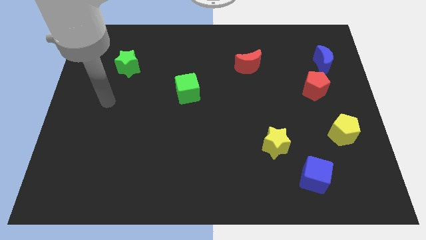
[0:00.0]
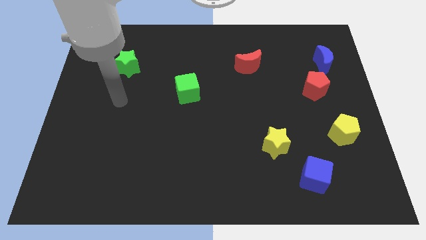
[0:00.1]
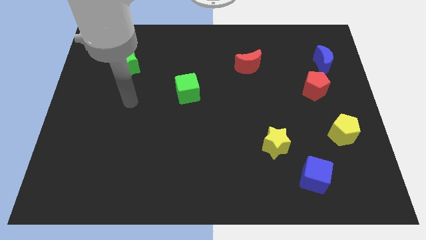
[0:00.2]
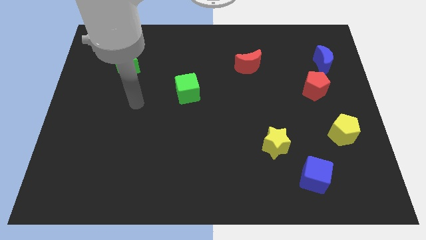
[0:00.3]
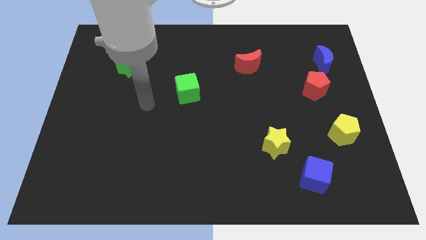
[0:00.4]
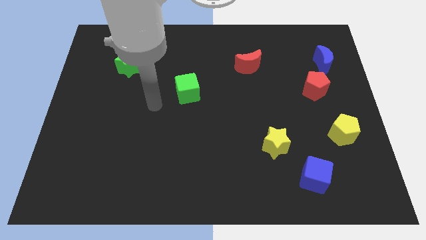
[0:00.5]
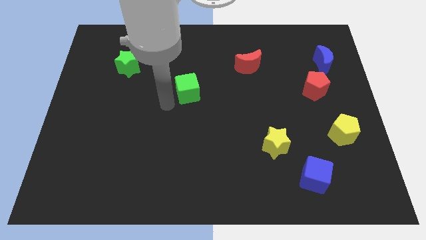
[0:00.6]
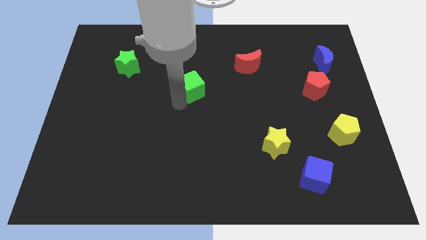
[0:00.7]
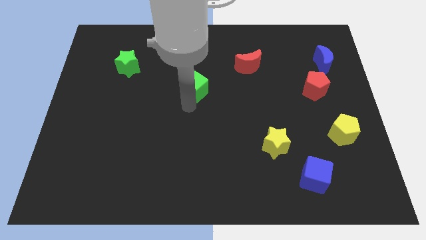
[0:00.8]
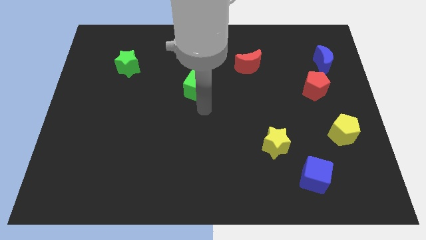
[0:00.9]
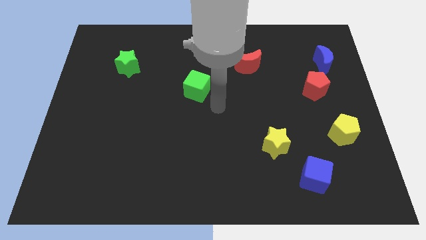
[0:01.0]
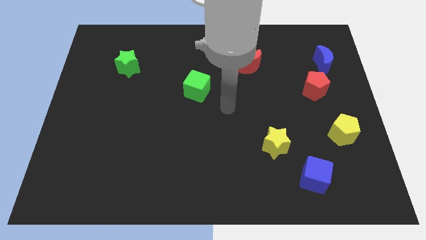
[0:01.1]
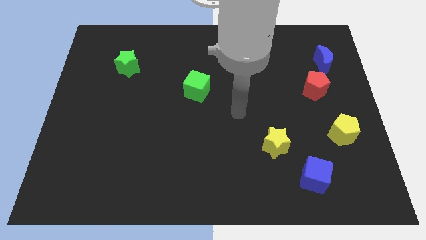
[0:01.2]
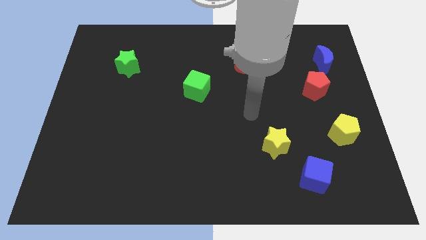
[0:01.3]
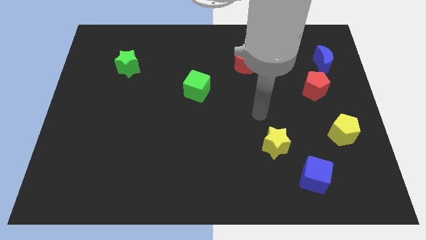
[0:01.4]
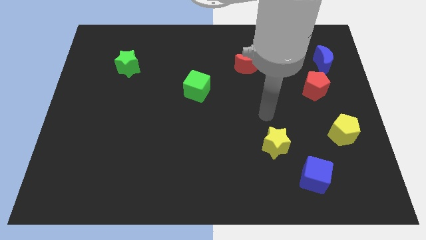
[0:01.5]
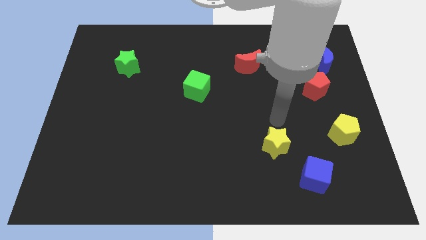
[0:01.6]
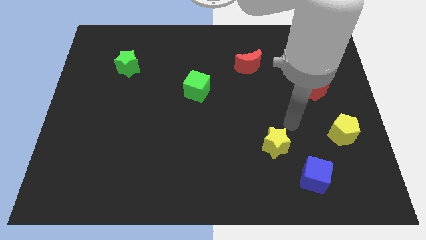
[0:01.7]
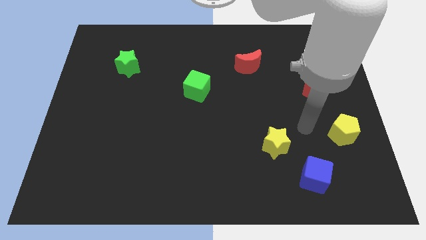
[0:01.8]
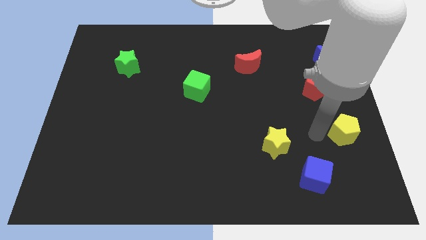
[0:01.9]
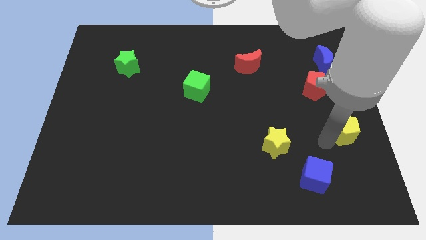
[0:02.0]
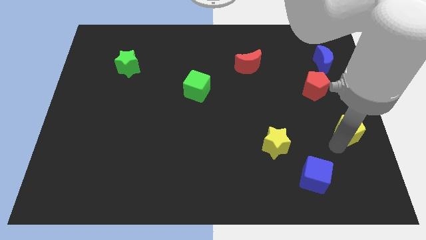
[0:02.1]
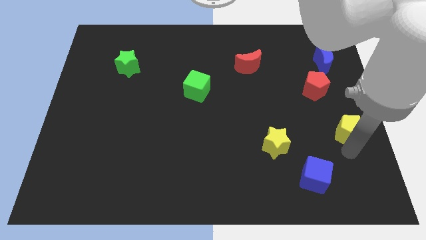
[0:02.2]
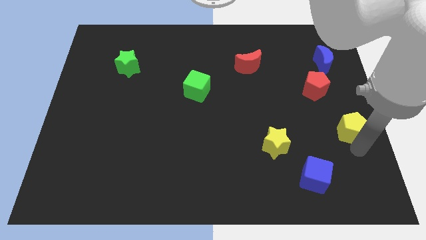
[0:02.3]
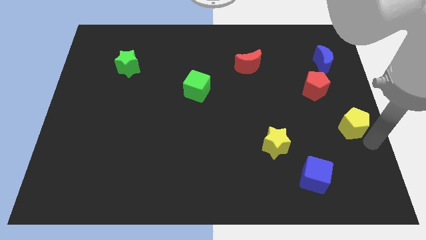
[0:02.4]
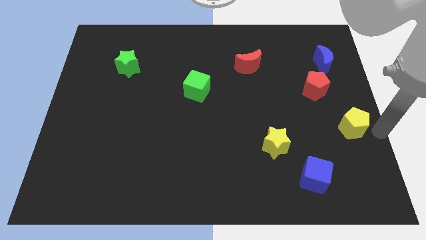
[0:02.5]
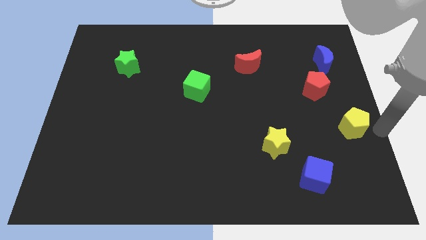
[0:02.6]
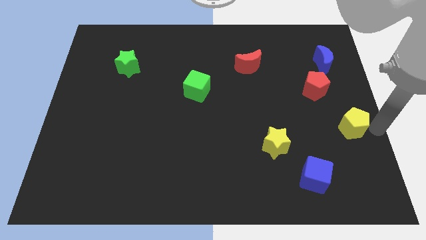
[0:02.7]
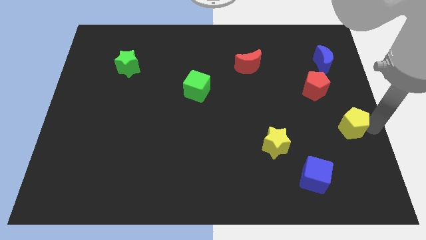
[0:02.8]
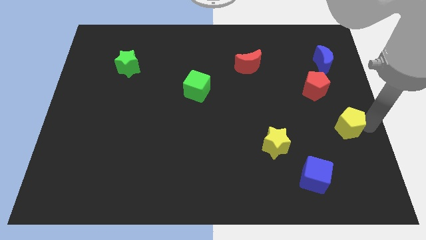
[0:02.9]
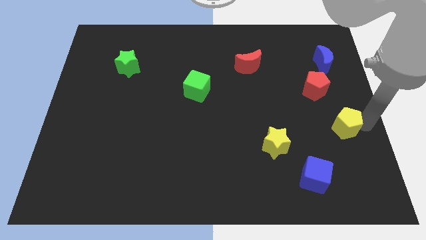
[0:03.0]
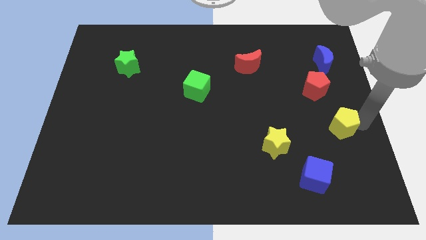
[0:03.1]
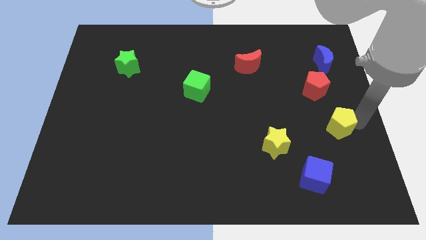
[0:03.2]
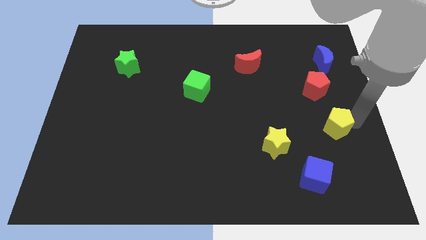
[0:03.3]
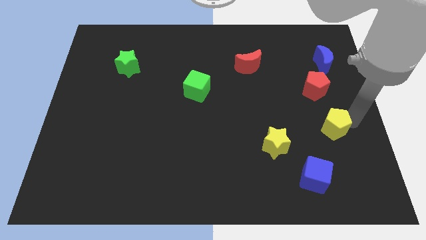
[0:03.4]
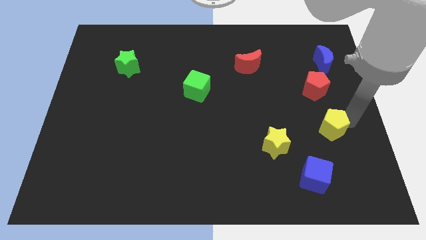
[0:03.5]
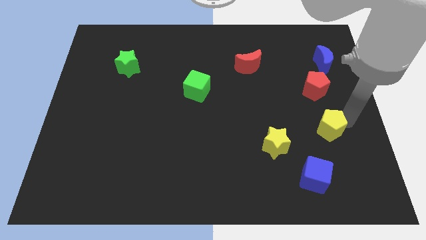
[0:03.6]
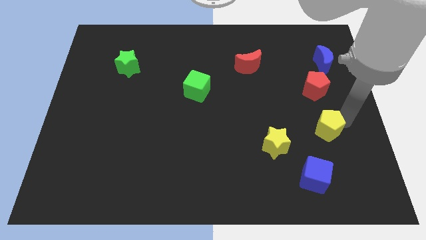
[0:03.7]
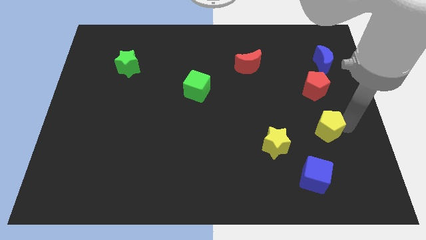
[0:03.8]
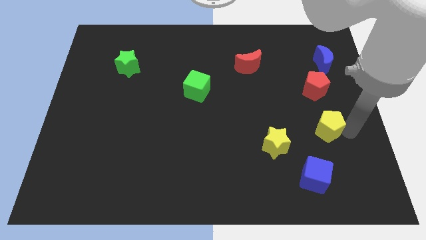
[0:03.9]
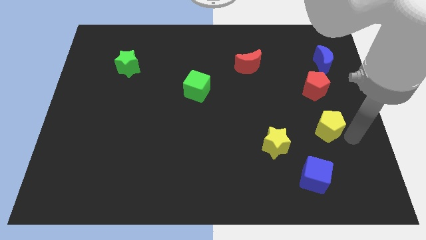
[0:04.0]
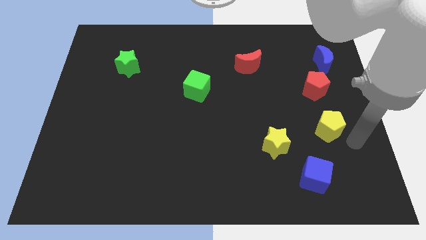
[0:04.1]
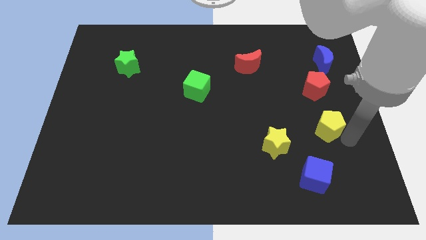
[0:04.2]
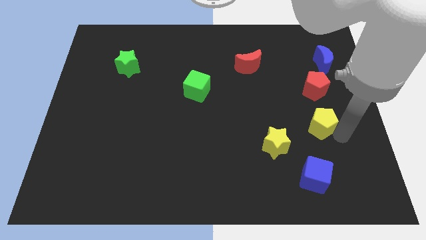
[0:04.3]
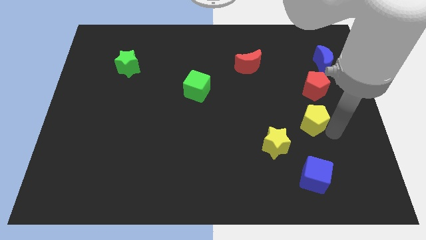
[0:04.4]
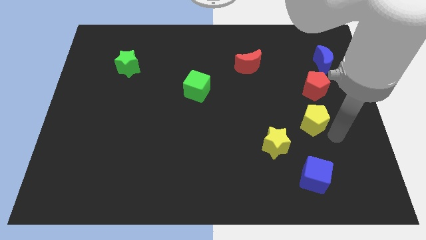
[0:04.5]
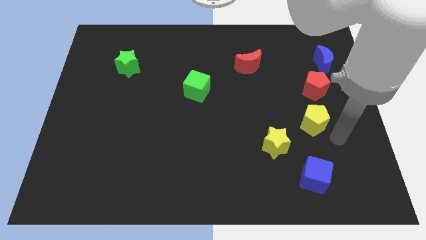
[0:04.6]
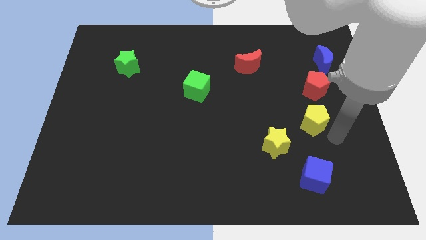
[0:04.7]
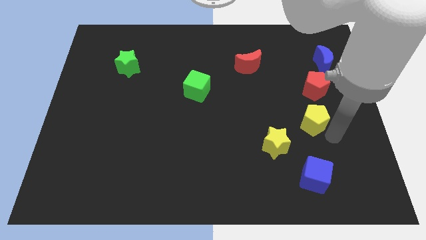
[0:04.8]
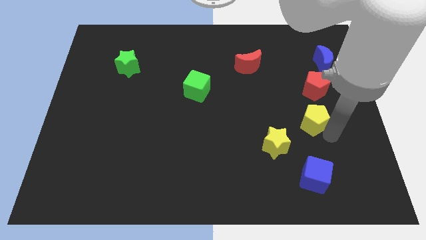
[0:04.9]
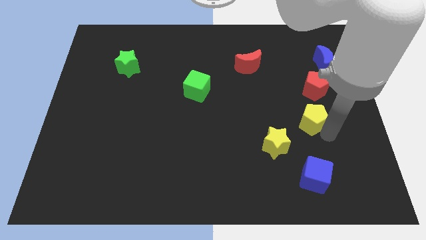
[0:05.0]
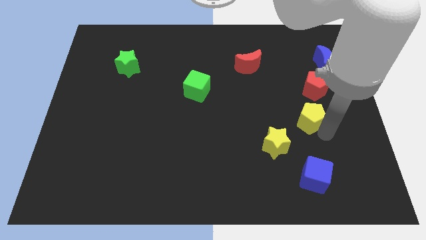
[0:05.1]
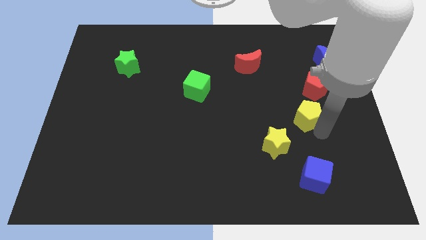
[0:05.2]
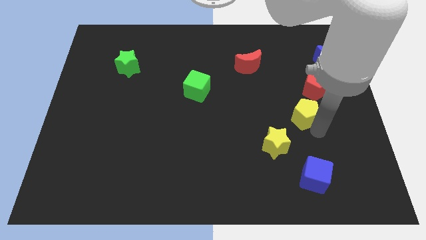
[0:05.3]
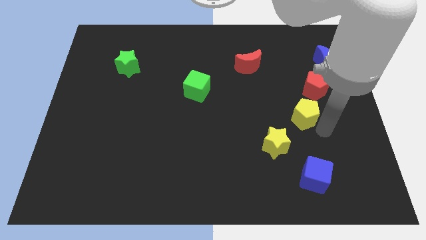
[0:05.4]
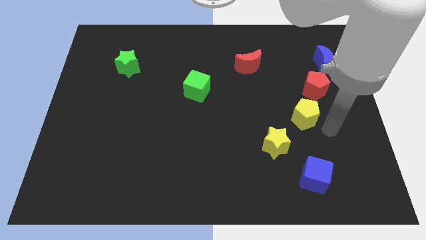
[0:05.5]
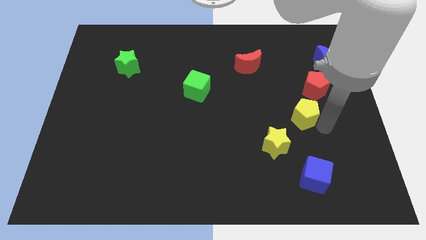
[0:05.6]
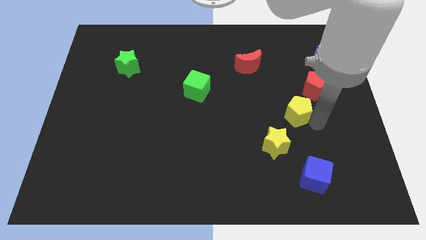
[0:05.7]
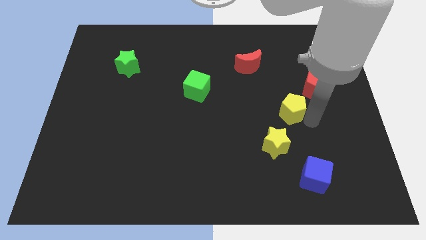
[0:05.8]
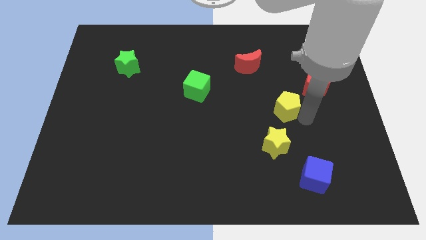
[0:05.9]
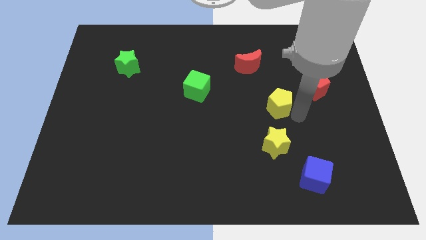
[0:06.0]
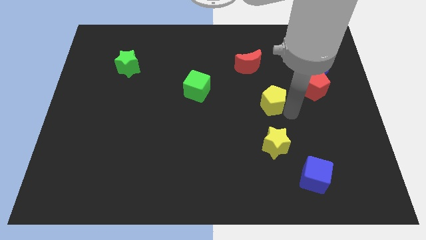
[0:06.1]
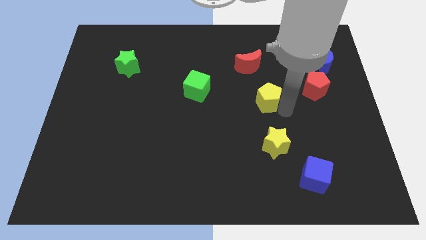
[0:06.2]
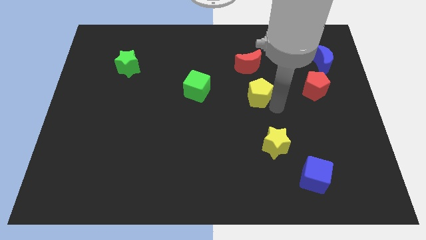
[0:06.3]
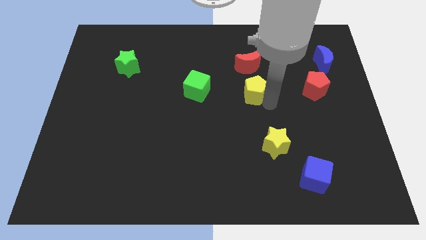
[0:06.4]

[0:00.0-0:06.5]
push the yellow pentagon diagonally upwards and left

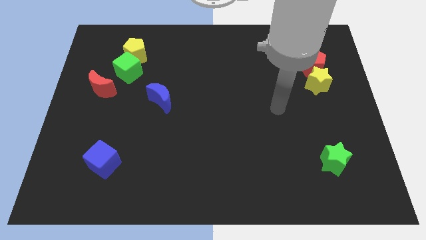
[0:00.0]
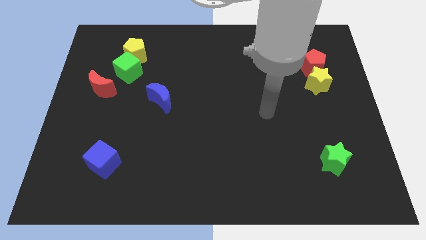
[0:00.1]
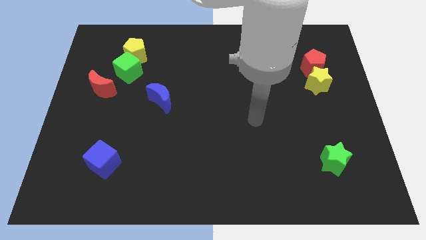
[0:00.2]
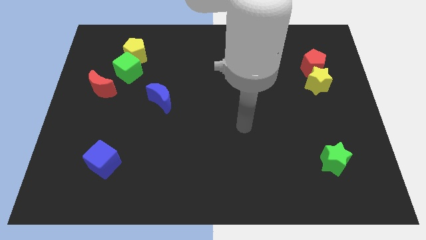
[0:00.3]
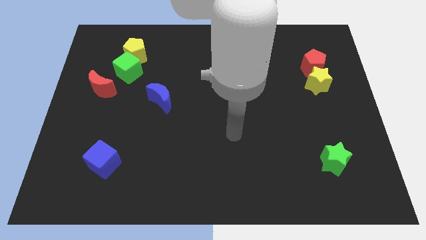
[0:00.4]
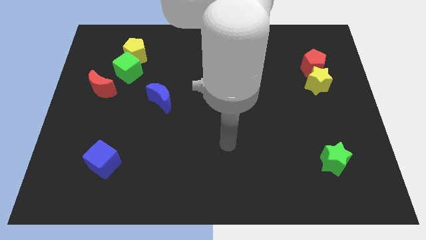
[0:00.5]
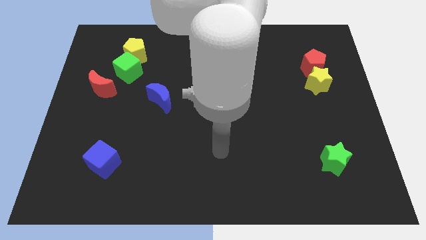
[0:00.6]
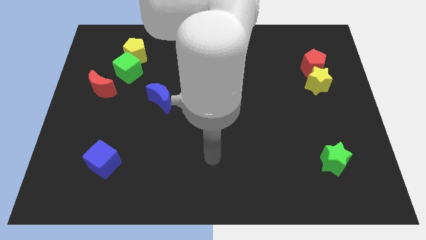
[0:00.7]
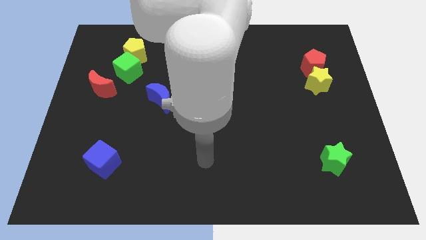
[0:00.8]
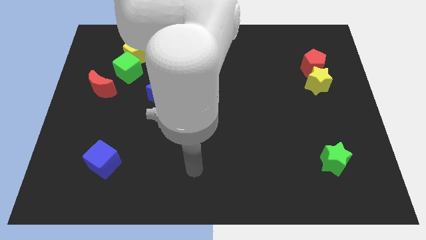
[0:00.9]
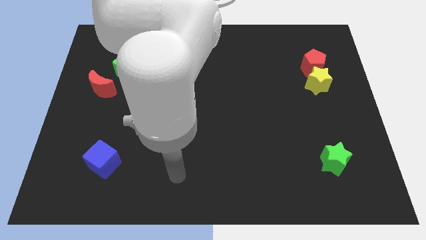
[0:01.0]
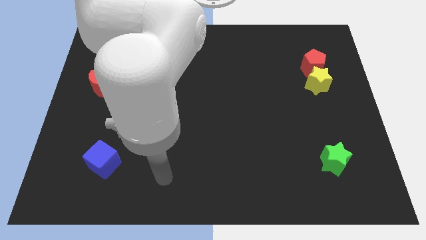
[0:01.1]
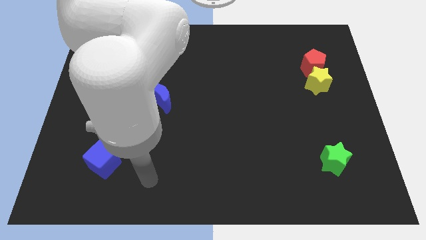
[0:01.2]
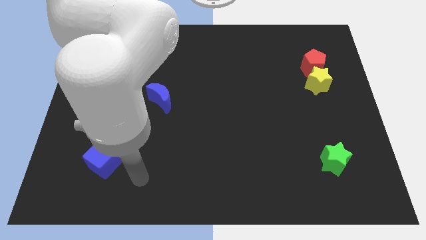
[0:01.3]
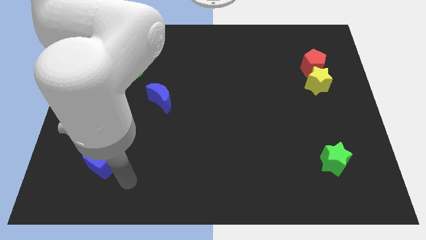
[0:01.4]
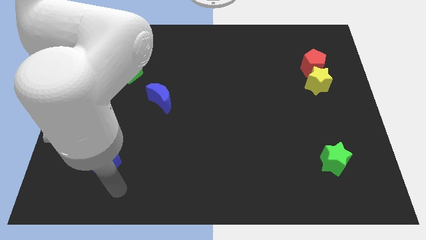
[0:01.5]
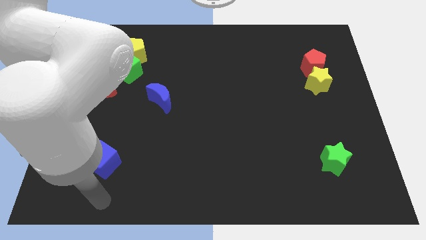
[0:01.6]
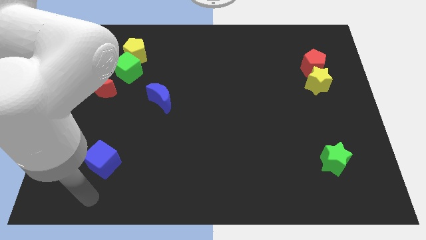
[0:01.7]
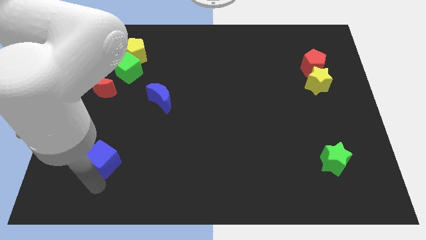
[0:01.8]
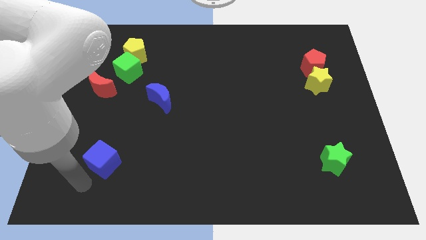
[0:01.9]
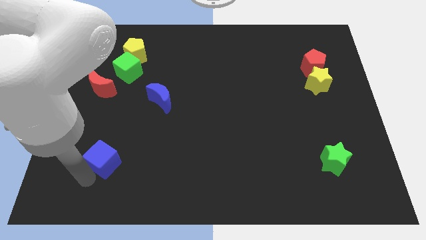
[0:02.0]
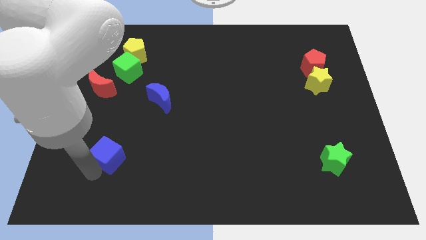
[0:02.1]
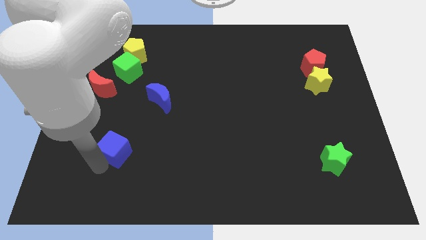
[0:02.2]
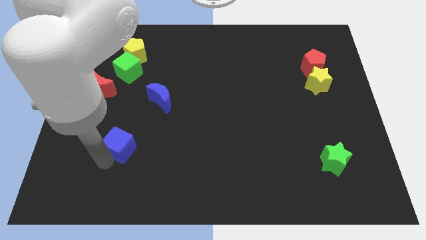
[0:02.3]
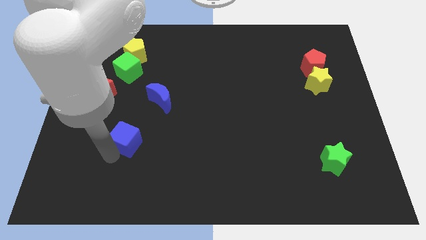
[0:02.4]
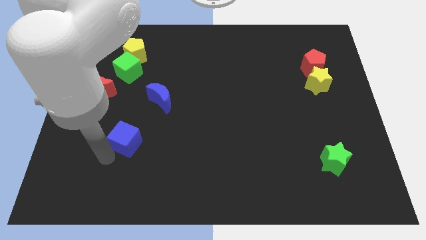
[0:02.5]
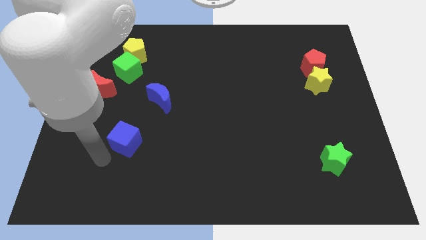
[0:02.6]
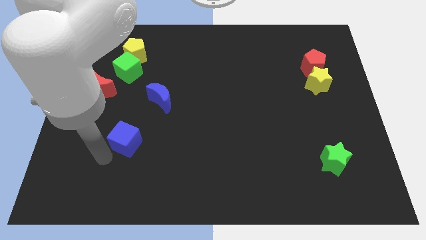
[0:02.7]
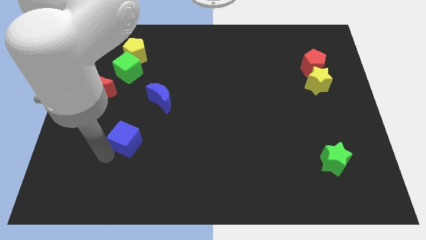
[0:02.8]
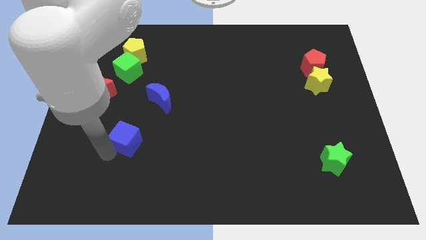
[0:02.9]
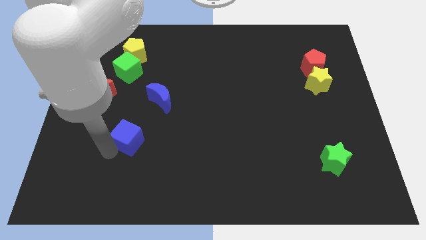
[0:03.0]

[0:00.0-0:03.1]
push the blue cube up and to the right a little
